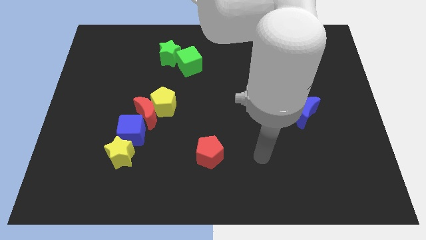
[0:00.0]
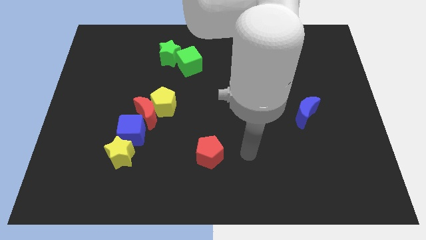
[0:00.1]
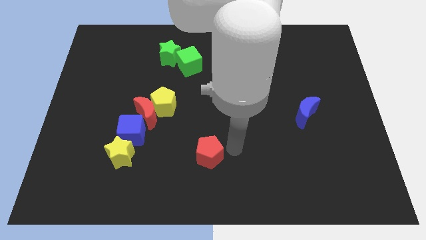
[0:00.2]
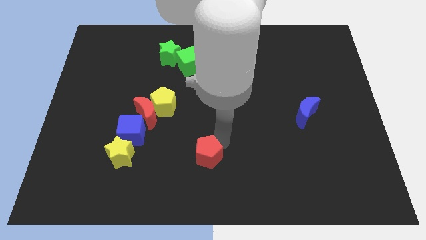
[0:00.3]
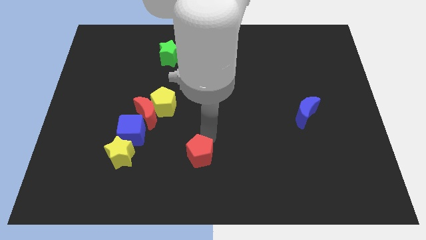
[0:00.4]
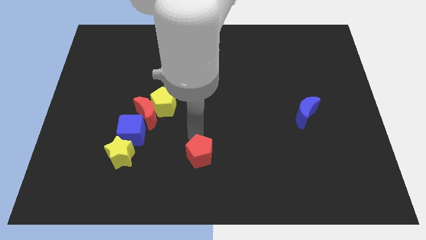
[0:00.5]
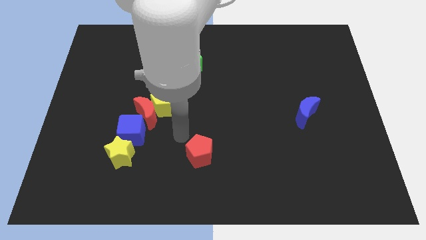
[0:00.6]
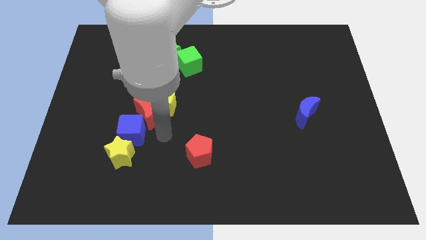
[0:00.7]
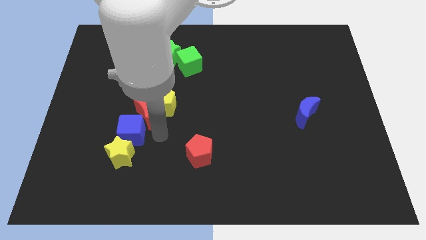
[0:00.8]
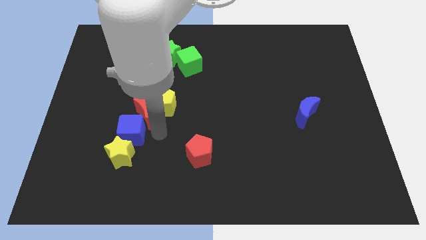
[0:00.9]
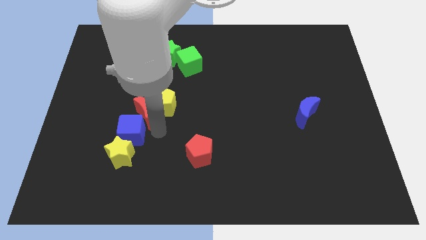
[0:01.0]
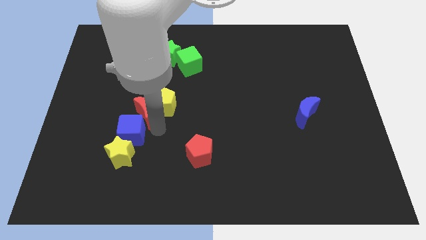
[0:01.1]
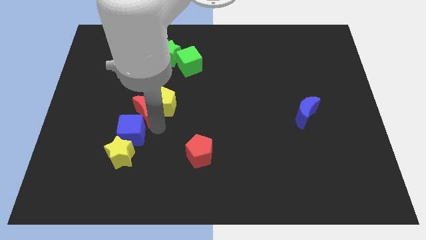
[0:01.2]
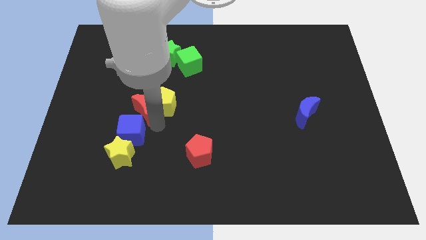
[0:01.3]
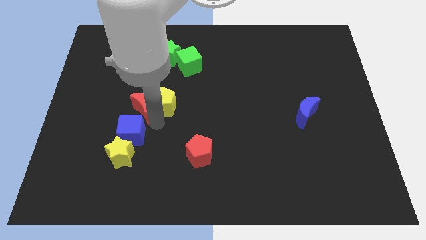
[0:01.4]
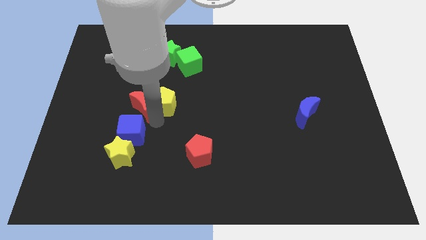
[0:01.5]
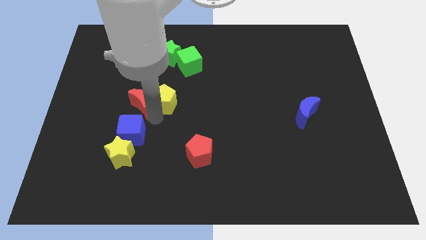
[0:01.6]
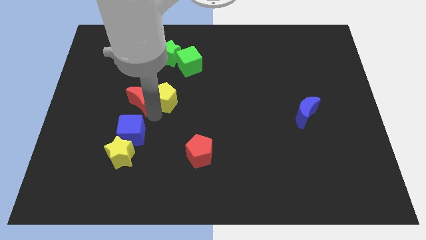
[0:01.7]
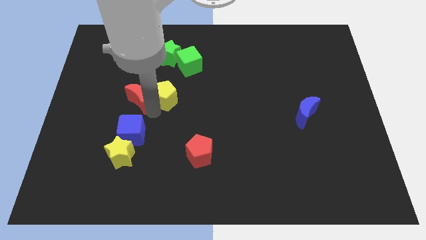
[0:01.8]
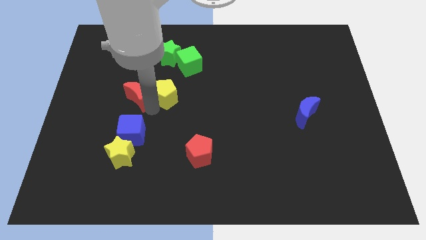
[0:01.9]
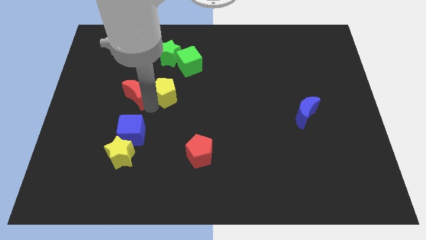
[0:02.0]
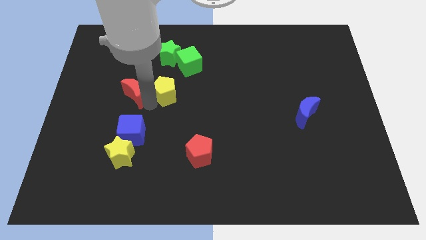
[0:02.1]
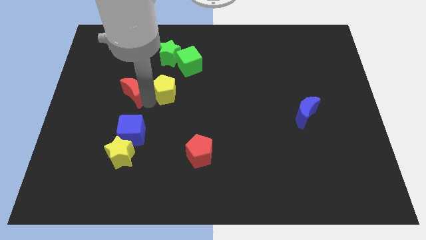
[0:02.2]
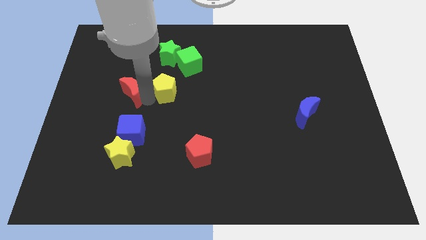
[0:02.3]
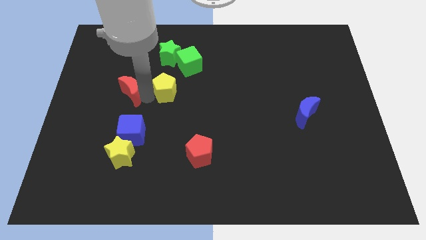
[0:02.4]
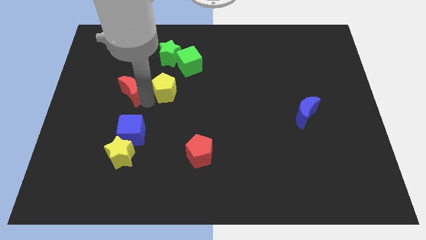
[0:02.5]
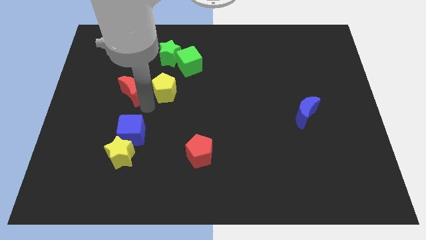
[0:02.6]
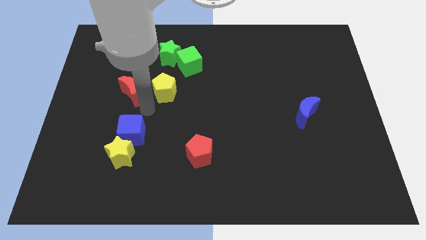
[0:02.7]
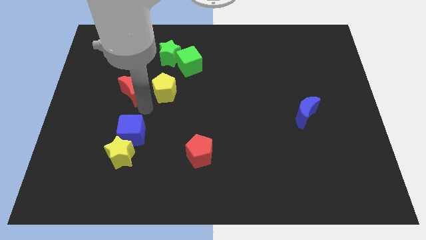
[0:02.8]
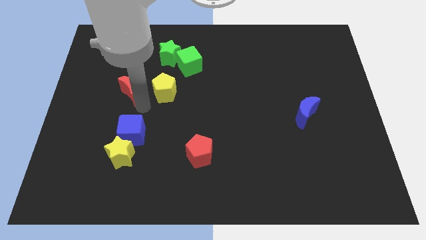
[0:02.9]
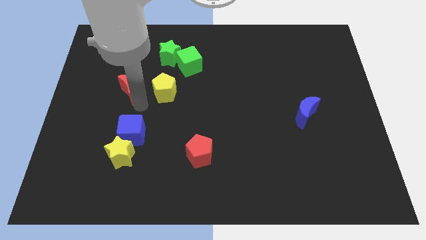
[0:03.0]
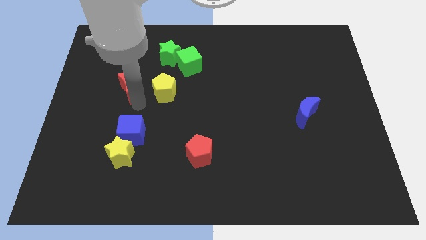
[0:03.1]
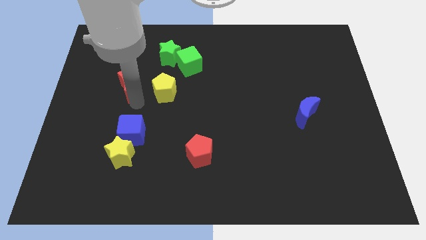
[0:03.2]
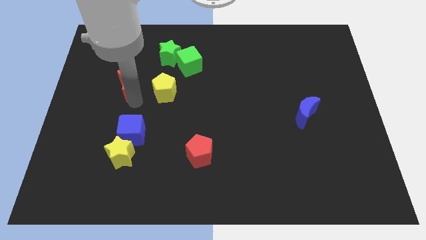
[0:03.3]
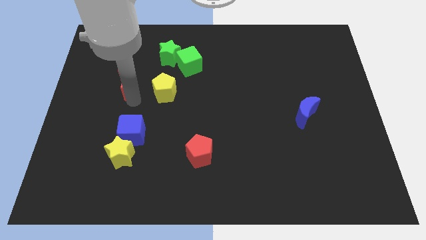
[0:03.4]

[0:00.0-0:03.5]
move the red moon away from the yellow pentagon and blue cube

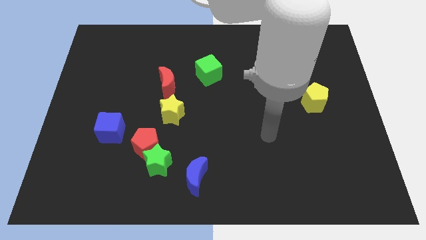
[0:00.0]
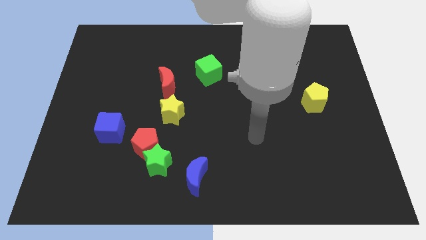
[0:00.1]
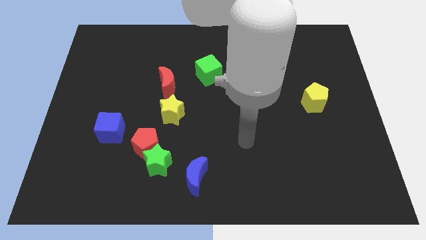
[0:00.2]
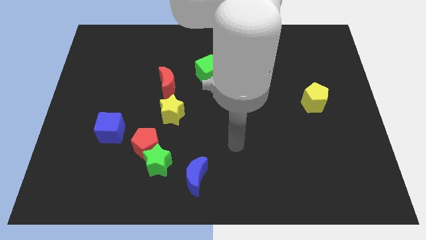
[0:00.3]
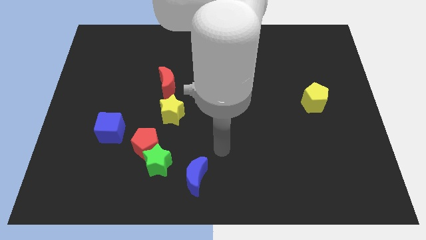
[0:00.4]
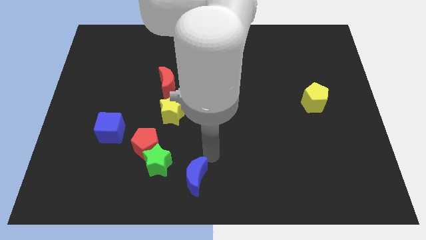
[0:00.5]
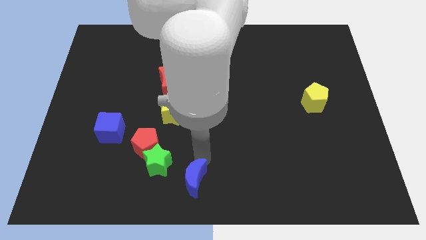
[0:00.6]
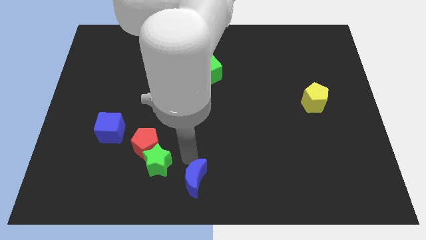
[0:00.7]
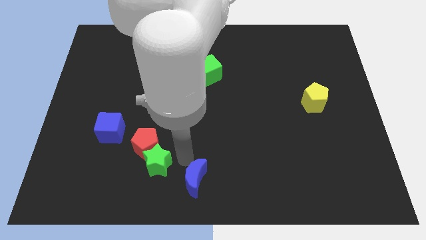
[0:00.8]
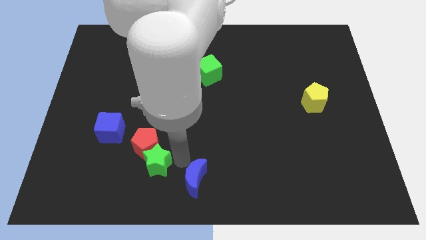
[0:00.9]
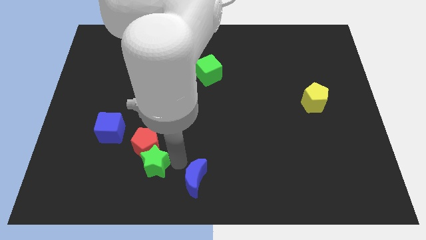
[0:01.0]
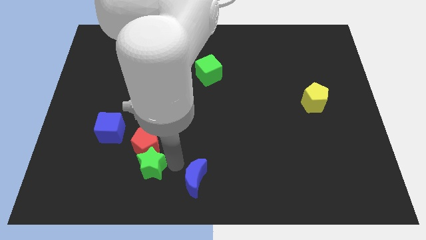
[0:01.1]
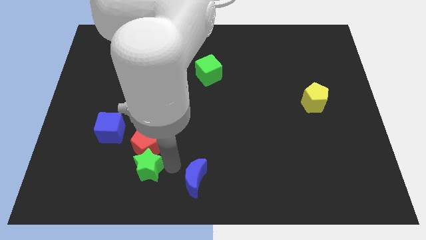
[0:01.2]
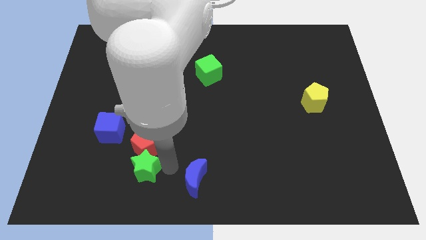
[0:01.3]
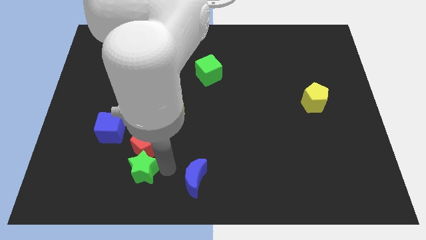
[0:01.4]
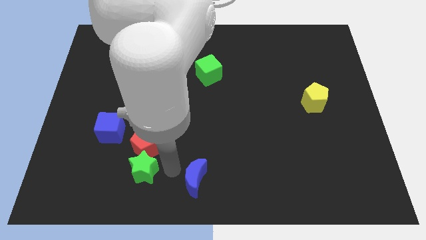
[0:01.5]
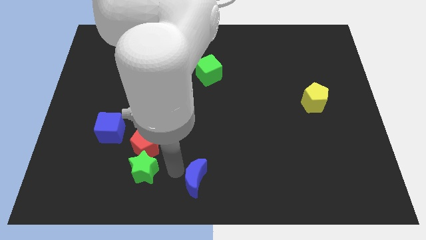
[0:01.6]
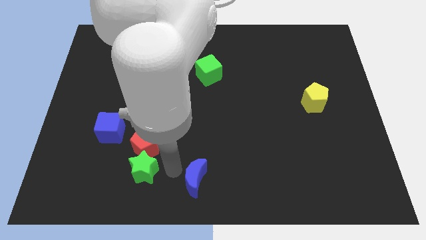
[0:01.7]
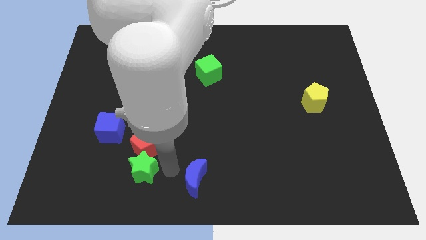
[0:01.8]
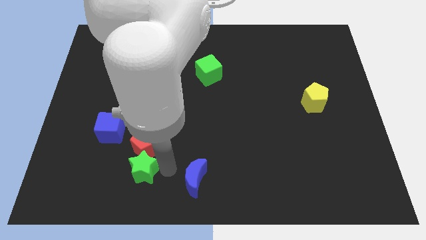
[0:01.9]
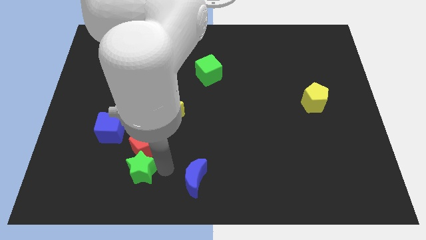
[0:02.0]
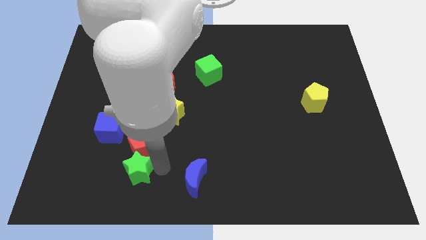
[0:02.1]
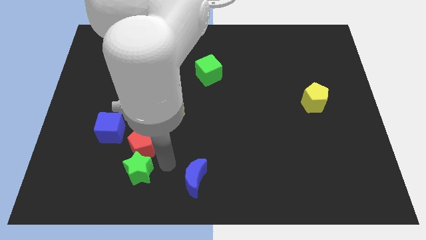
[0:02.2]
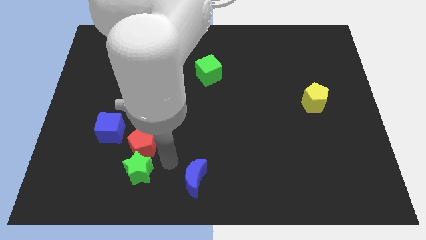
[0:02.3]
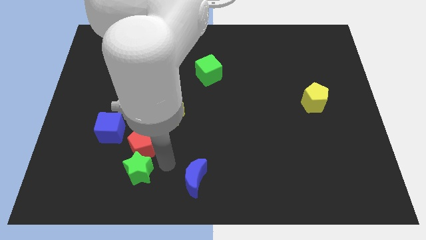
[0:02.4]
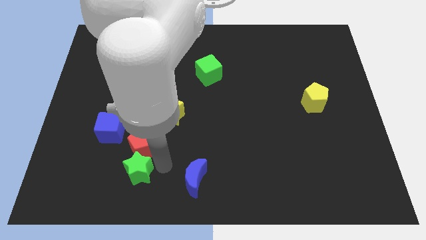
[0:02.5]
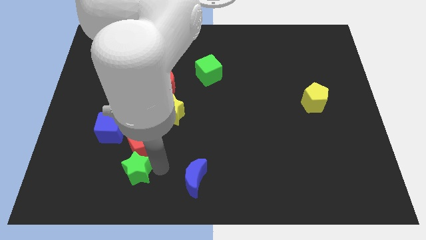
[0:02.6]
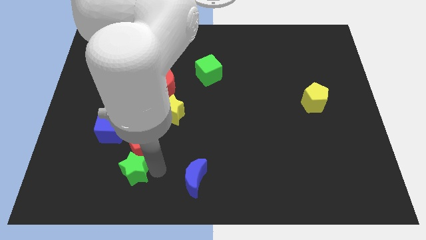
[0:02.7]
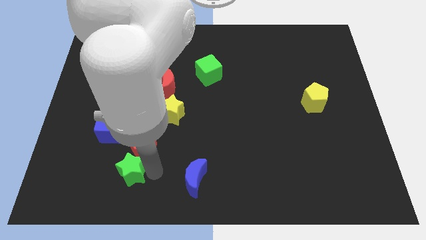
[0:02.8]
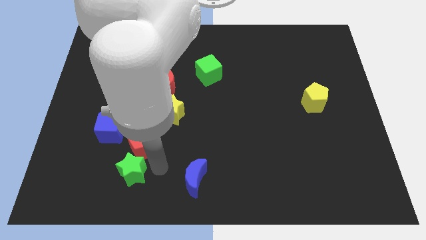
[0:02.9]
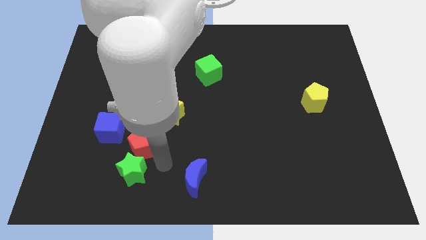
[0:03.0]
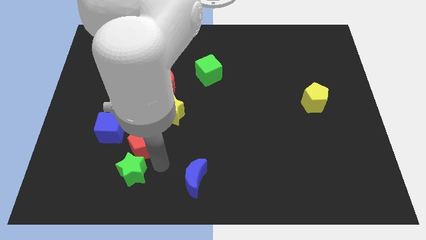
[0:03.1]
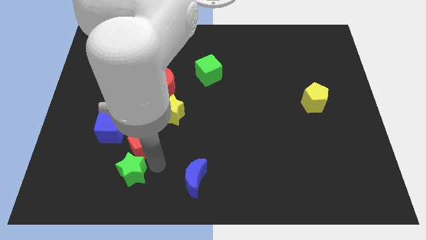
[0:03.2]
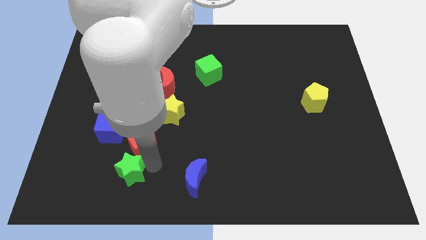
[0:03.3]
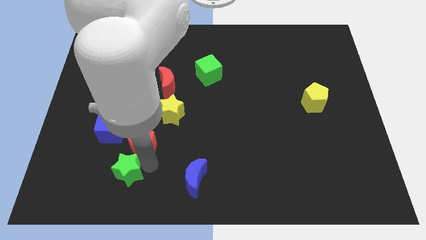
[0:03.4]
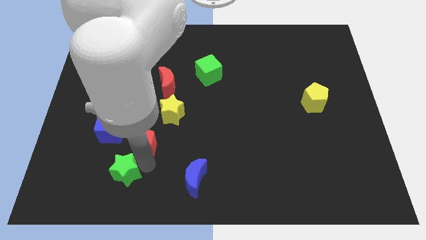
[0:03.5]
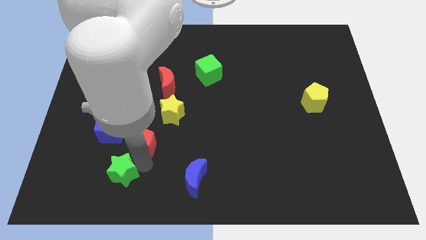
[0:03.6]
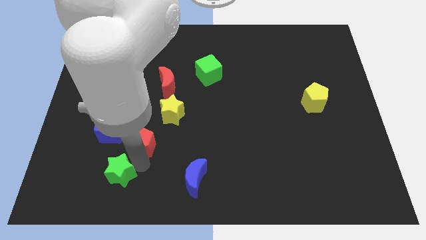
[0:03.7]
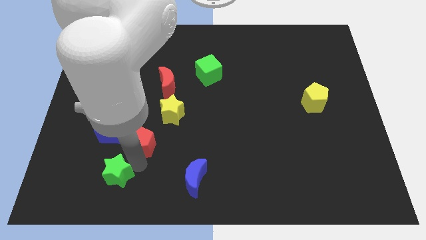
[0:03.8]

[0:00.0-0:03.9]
separate the green star from the red pentagon and blue moon

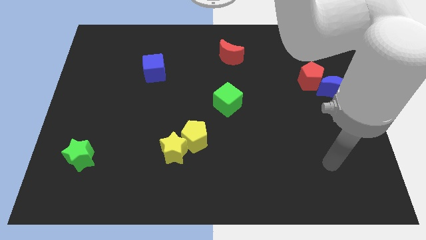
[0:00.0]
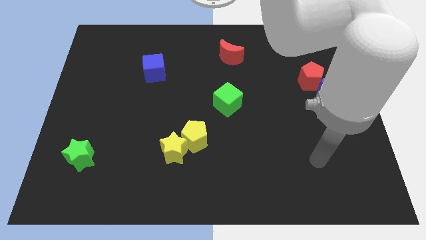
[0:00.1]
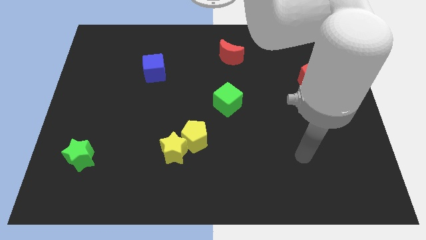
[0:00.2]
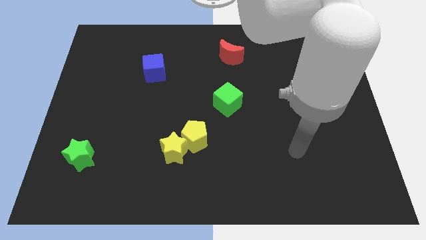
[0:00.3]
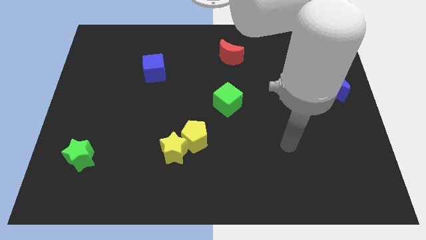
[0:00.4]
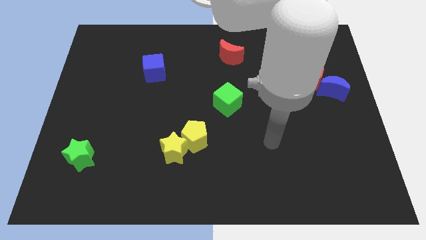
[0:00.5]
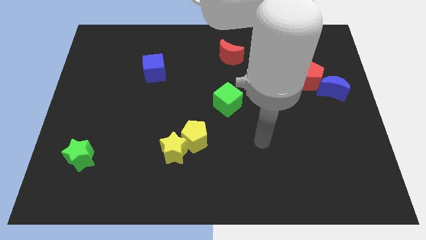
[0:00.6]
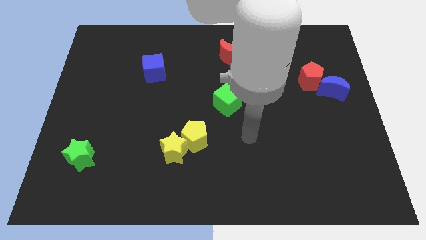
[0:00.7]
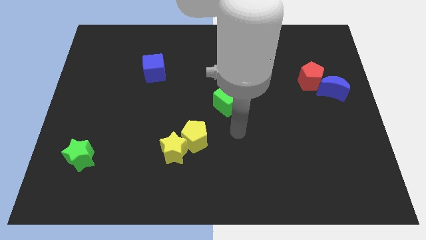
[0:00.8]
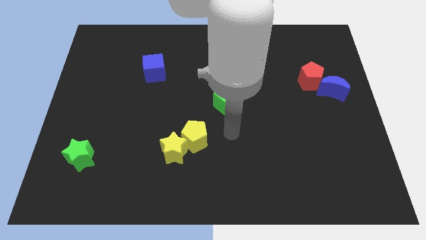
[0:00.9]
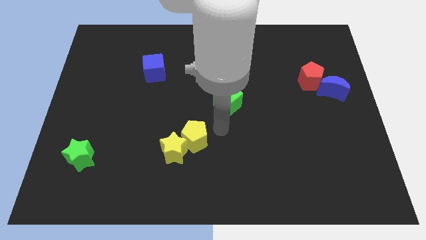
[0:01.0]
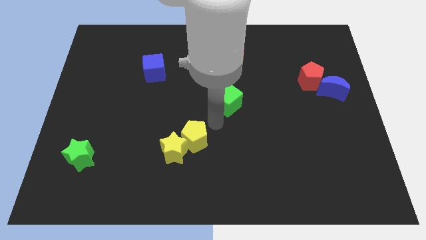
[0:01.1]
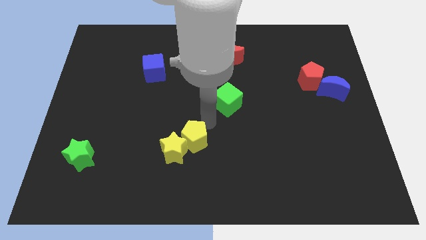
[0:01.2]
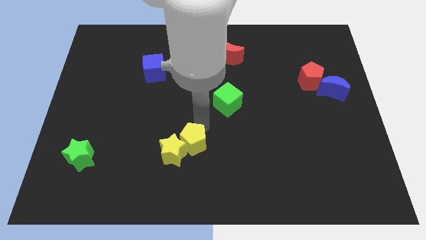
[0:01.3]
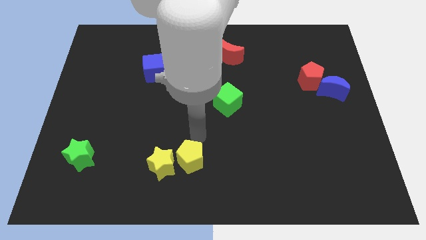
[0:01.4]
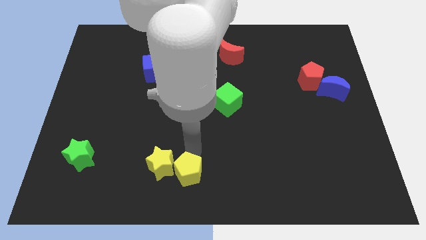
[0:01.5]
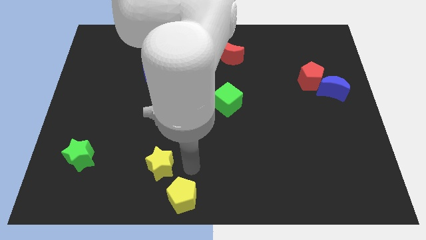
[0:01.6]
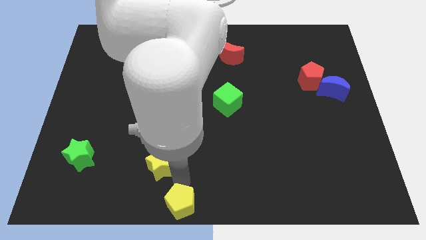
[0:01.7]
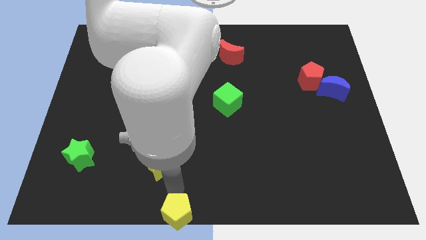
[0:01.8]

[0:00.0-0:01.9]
separate the yellow star from the yellow pentagon

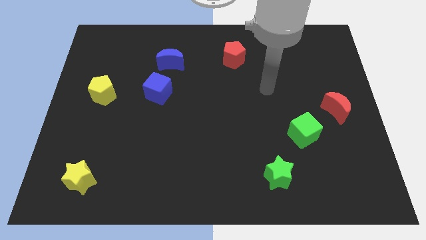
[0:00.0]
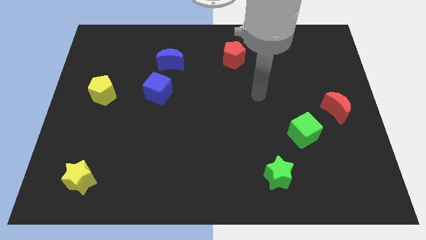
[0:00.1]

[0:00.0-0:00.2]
move the blue moon away from the blue cube
